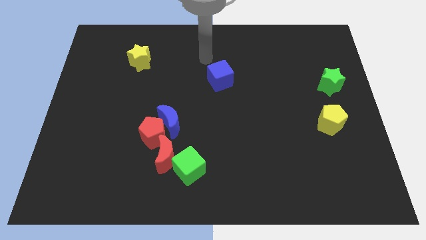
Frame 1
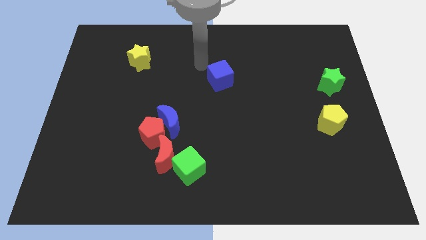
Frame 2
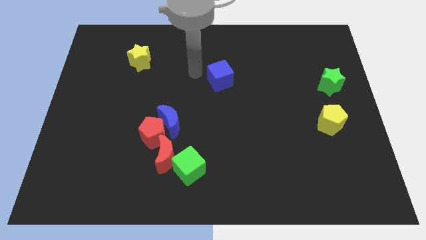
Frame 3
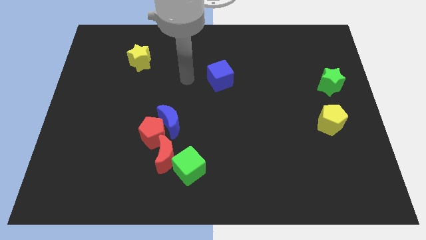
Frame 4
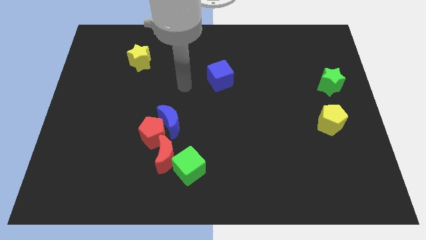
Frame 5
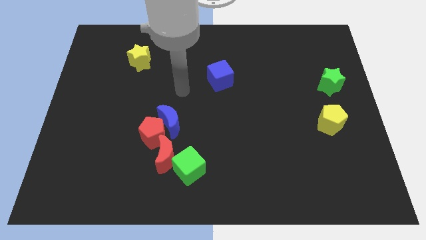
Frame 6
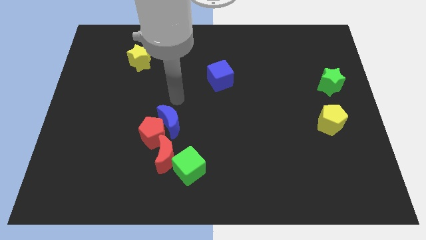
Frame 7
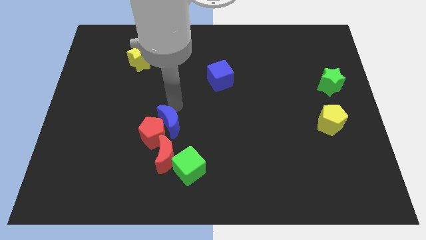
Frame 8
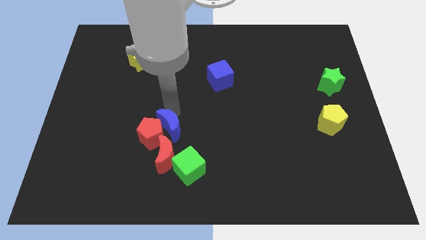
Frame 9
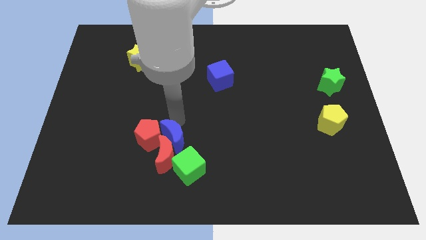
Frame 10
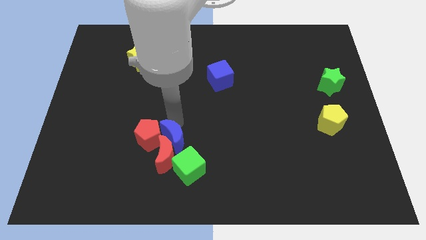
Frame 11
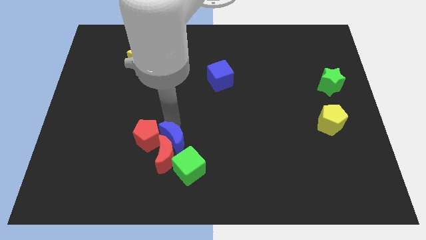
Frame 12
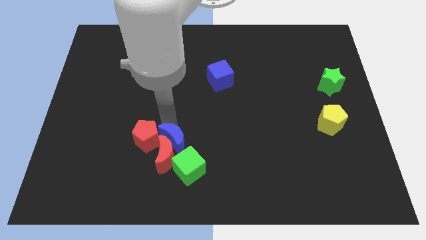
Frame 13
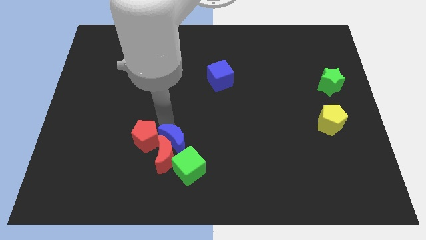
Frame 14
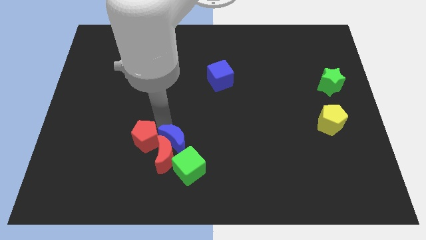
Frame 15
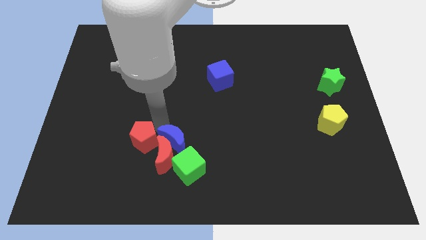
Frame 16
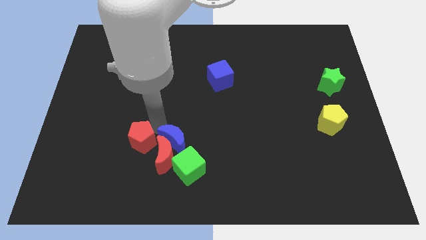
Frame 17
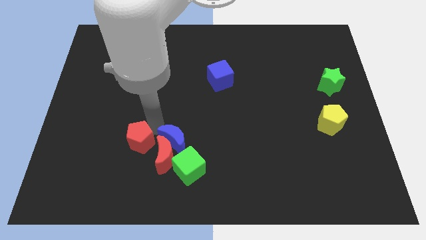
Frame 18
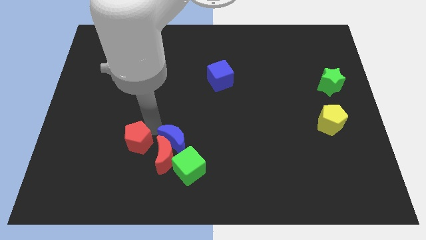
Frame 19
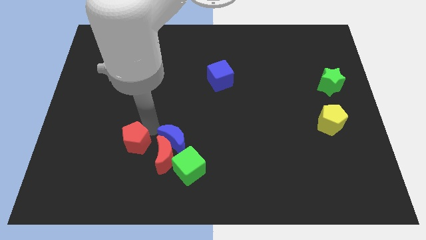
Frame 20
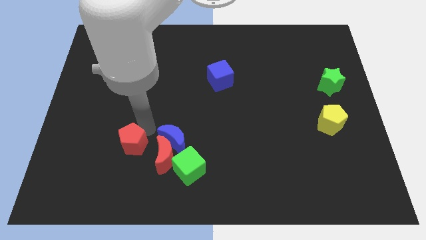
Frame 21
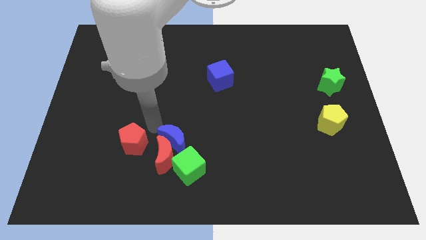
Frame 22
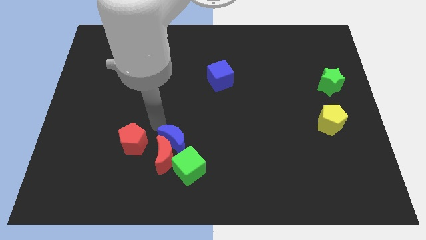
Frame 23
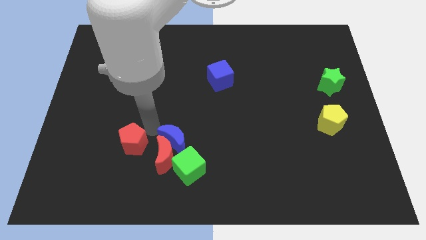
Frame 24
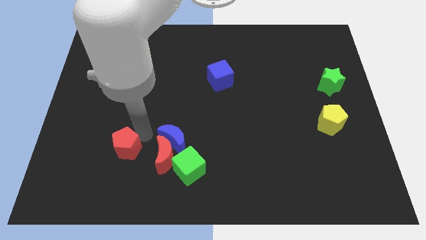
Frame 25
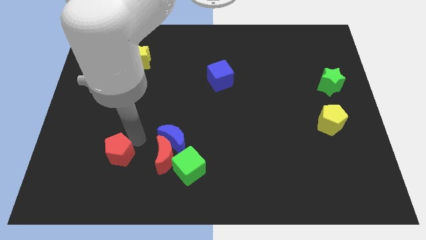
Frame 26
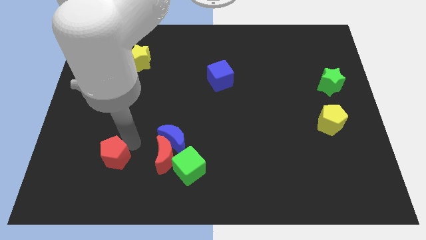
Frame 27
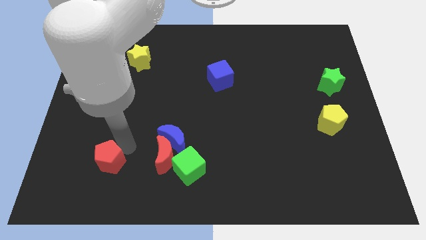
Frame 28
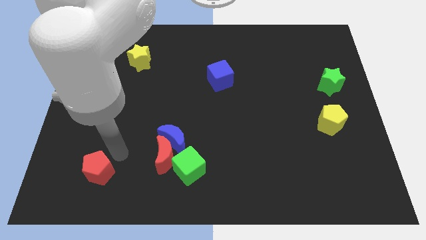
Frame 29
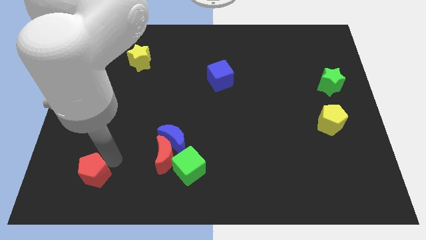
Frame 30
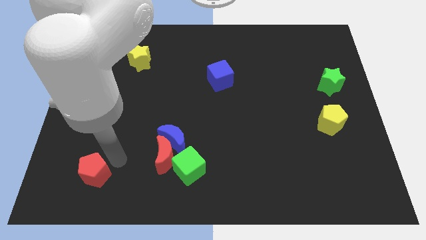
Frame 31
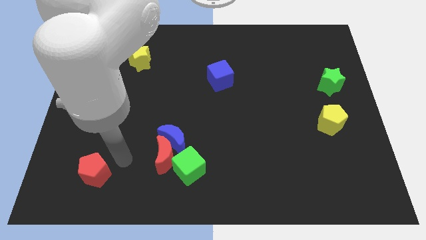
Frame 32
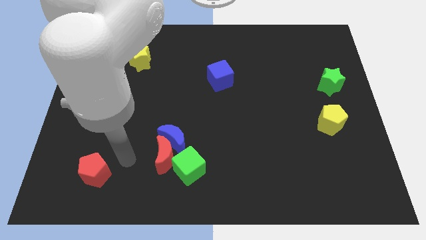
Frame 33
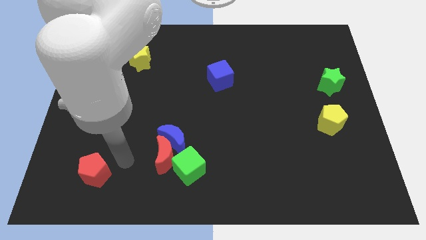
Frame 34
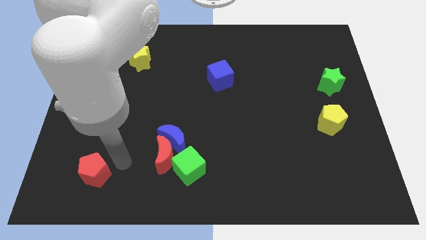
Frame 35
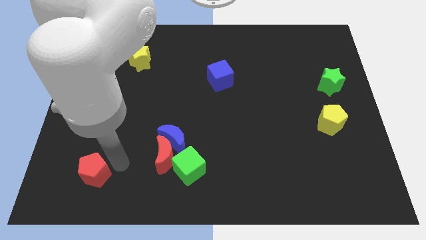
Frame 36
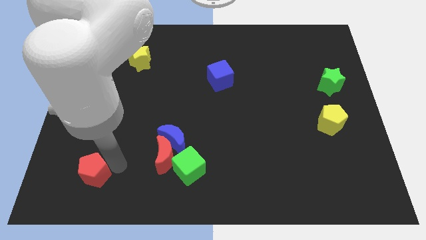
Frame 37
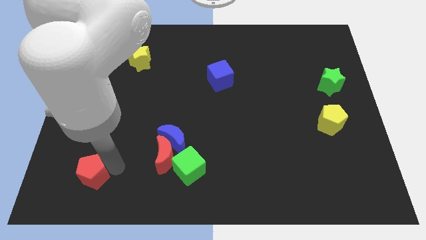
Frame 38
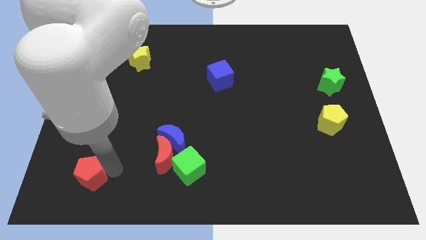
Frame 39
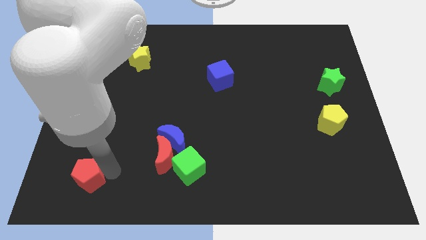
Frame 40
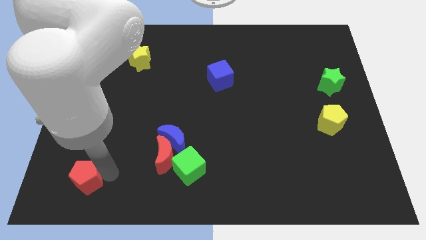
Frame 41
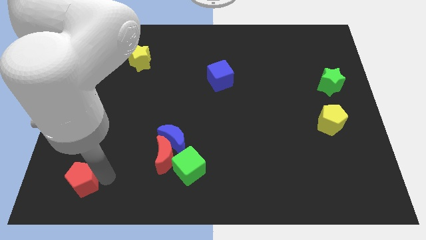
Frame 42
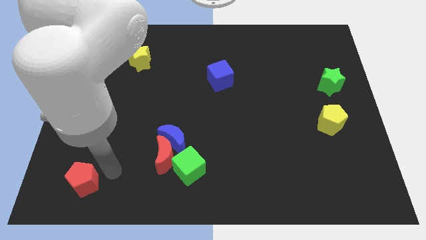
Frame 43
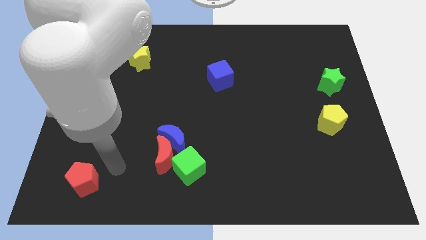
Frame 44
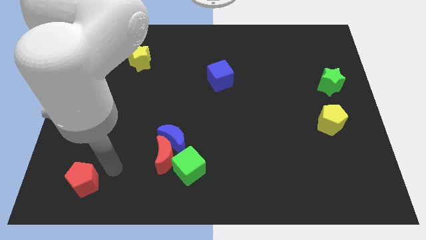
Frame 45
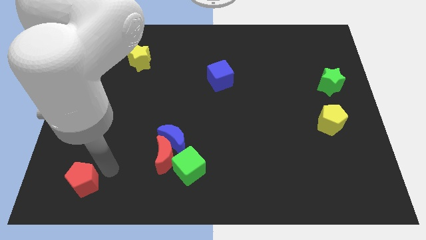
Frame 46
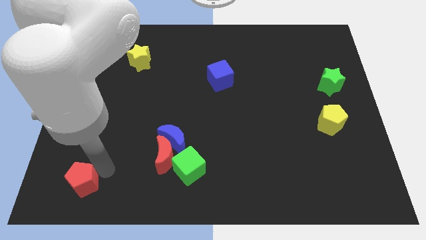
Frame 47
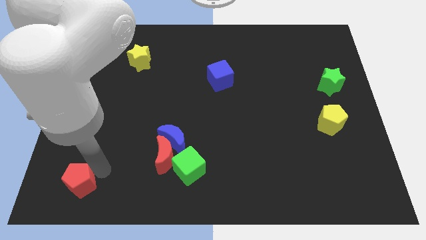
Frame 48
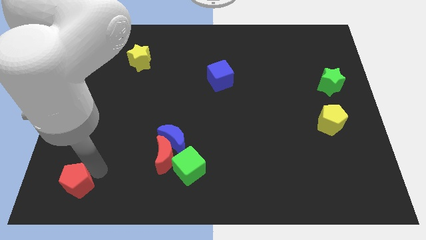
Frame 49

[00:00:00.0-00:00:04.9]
put the red pentagon to the bottom left corner

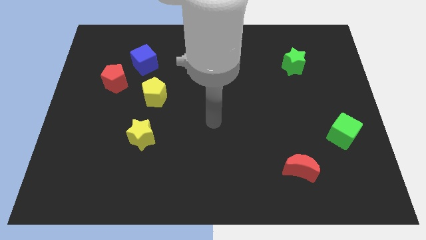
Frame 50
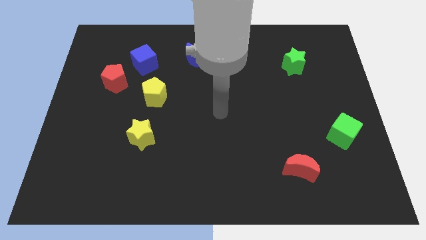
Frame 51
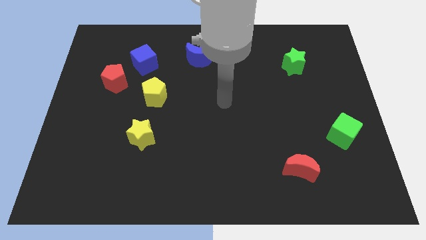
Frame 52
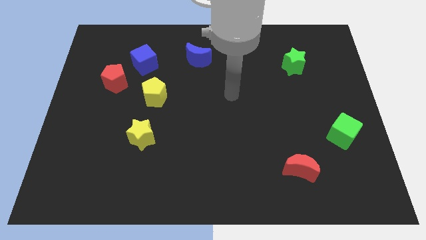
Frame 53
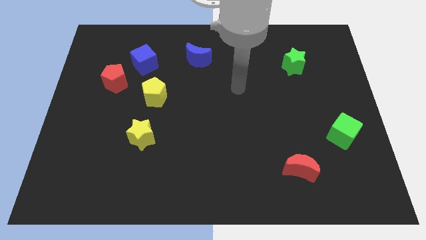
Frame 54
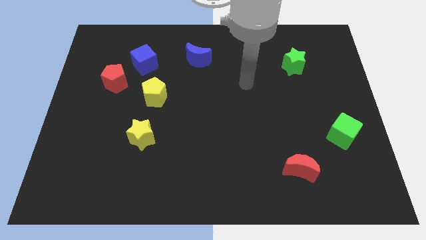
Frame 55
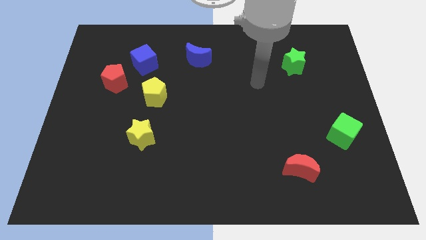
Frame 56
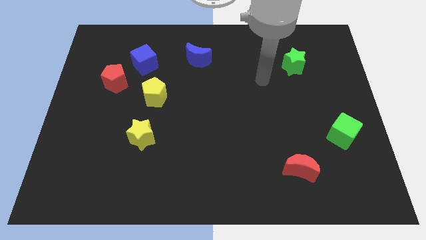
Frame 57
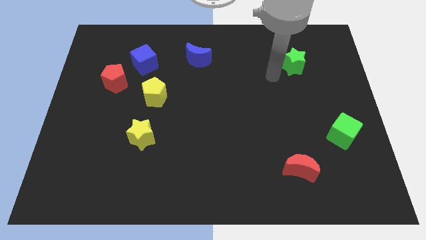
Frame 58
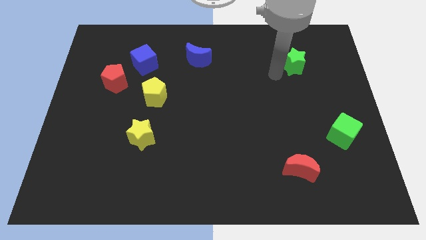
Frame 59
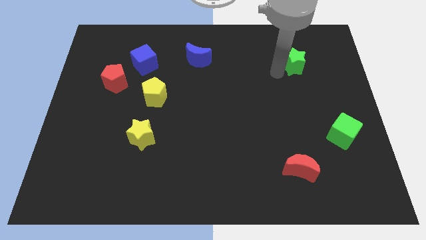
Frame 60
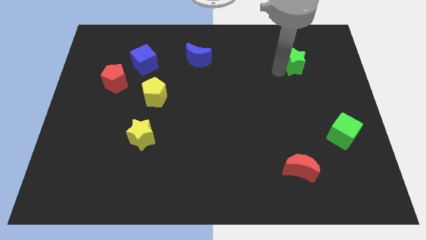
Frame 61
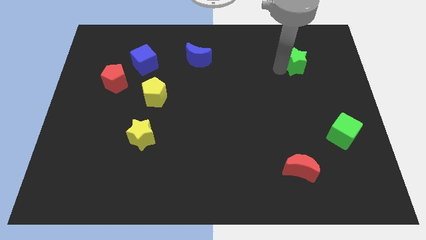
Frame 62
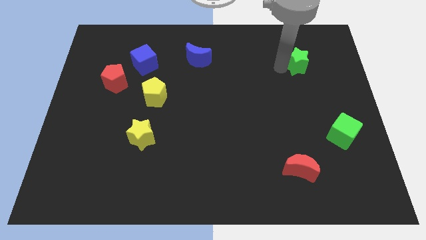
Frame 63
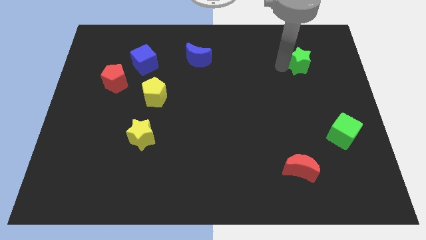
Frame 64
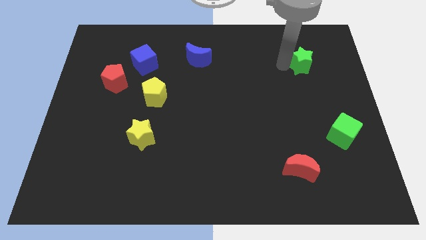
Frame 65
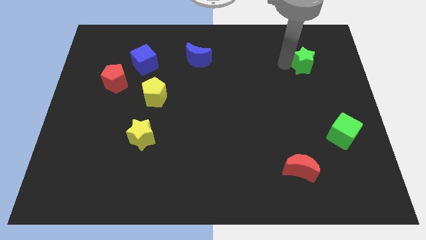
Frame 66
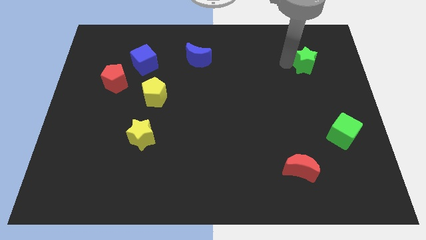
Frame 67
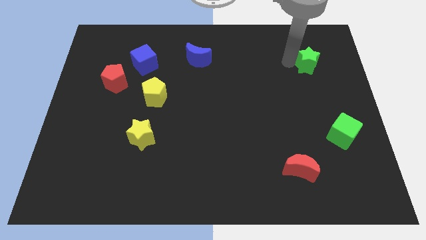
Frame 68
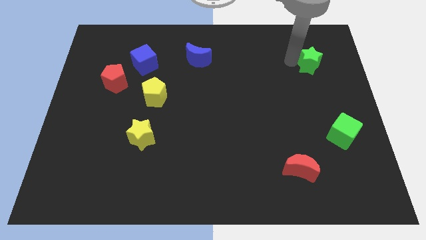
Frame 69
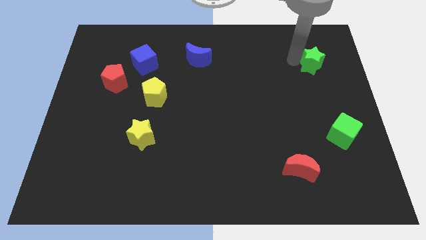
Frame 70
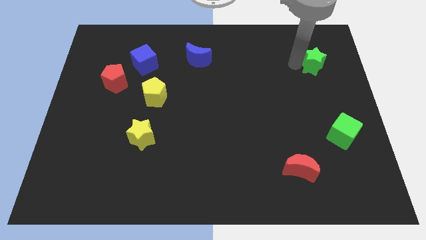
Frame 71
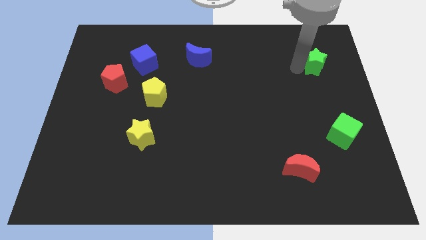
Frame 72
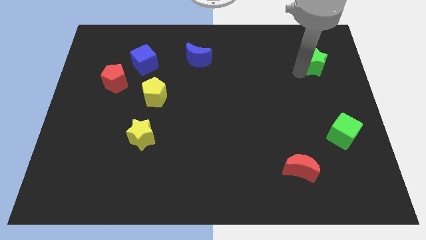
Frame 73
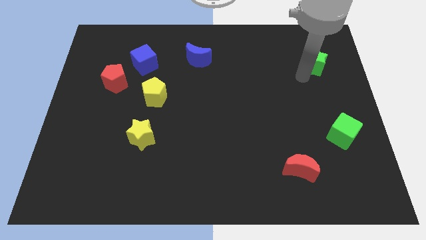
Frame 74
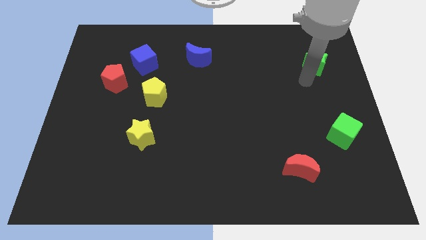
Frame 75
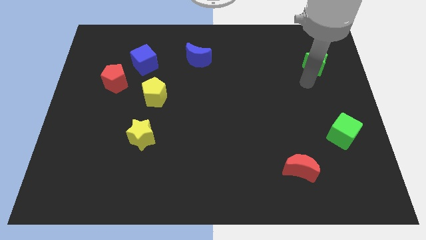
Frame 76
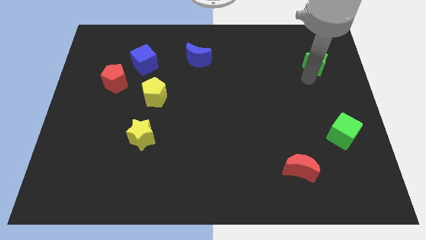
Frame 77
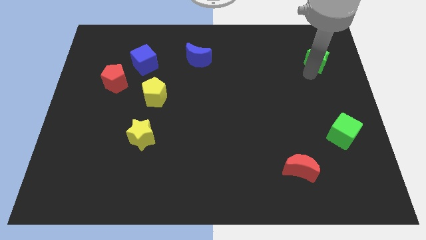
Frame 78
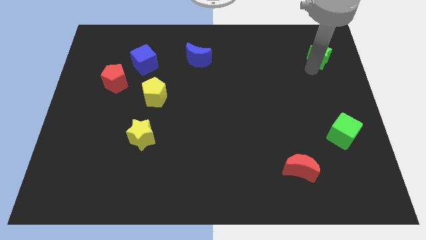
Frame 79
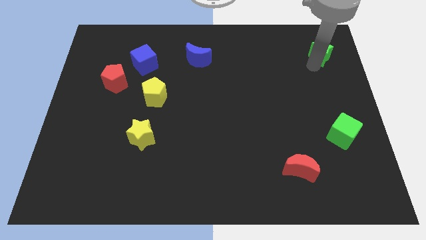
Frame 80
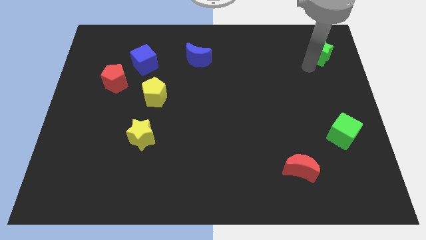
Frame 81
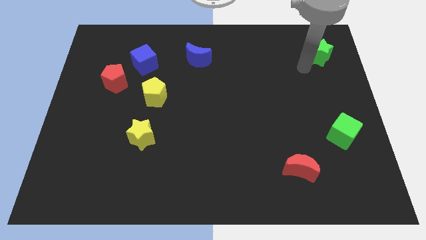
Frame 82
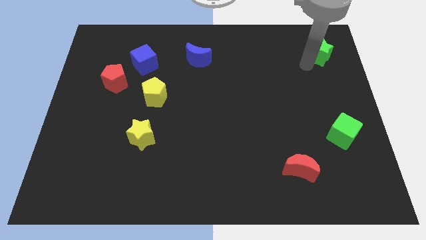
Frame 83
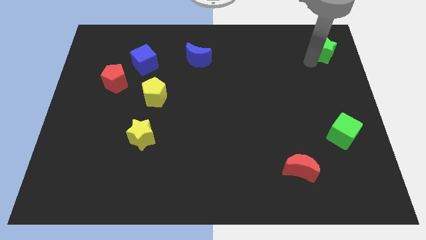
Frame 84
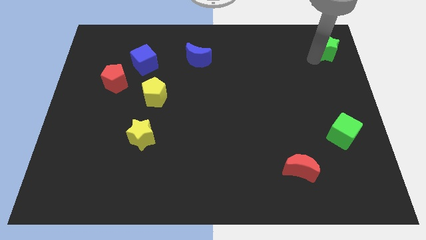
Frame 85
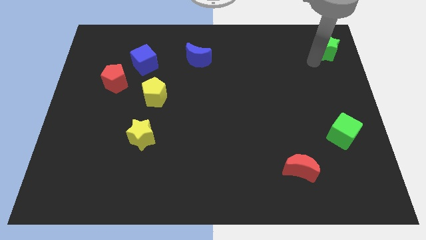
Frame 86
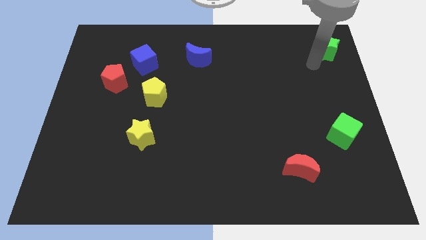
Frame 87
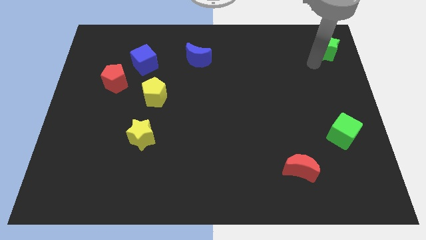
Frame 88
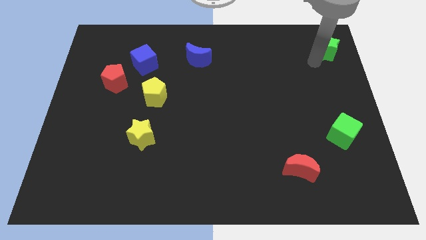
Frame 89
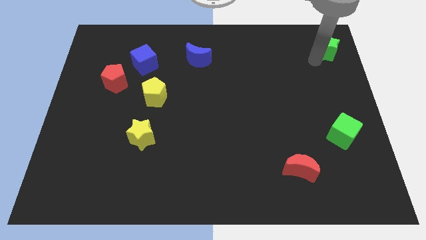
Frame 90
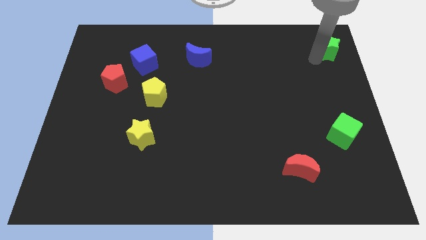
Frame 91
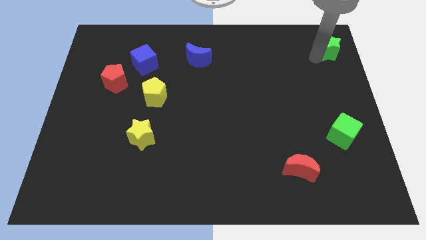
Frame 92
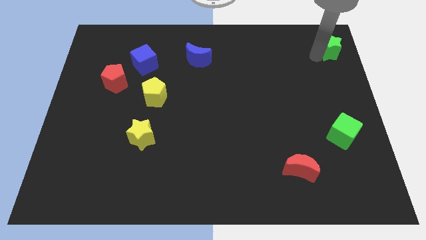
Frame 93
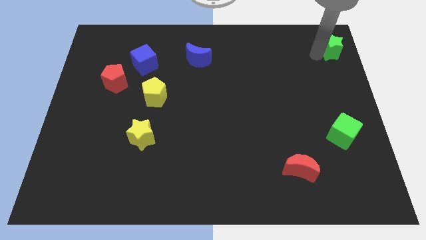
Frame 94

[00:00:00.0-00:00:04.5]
put the green star to the upper right corner
